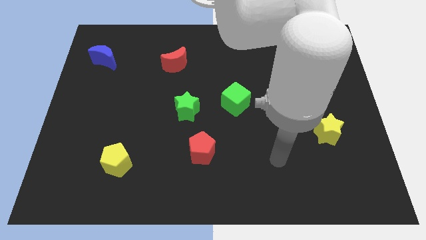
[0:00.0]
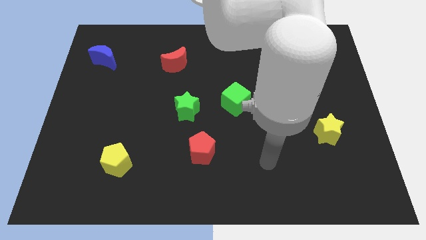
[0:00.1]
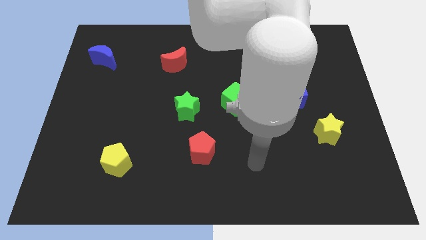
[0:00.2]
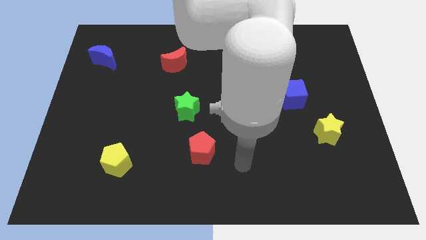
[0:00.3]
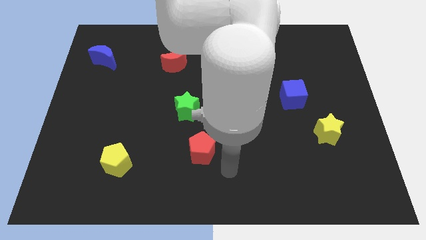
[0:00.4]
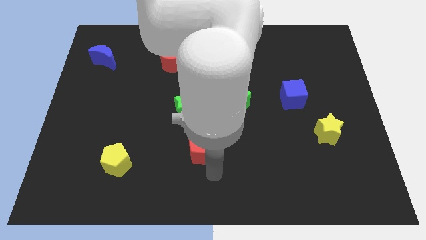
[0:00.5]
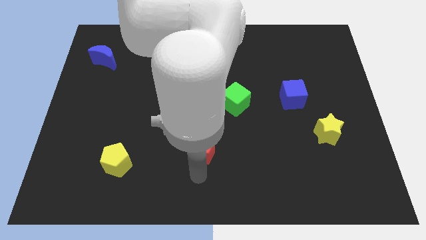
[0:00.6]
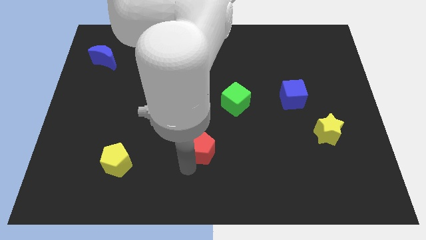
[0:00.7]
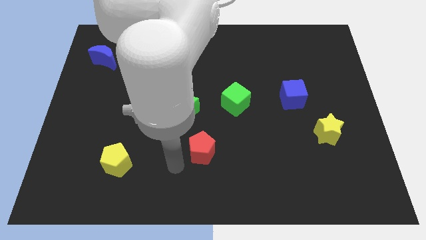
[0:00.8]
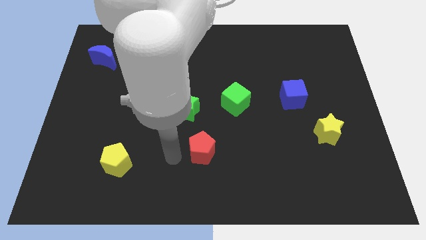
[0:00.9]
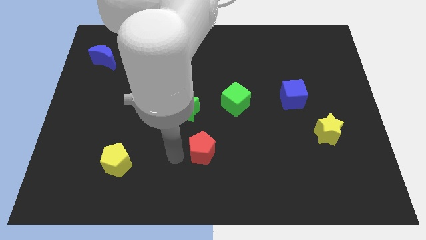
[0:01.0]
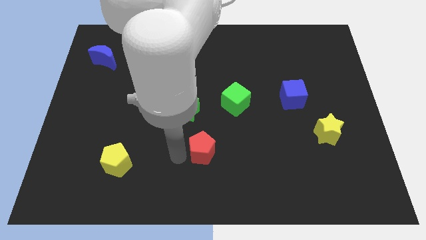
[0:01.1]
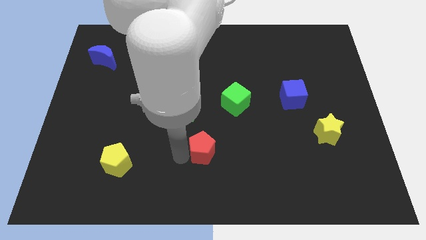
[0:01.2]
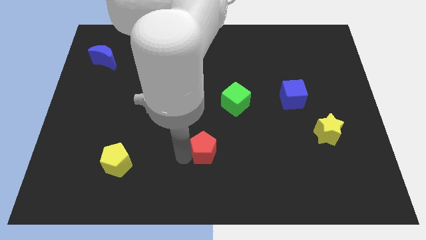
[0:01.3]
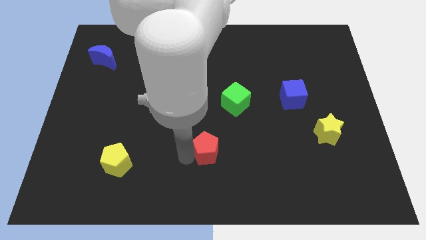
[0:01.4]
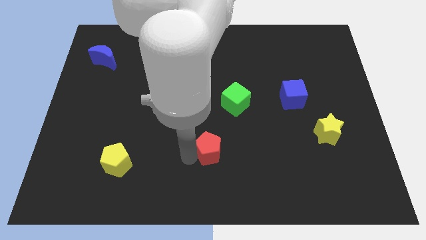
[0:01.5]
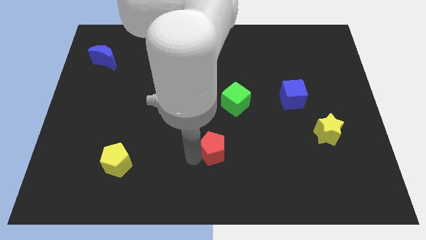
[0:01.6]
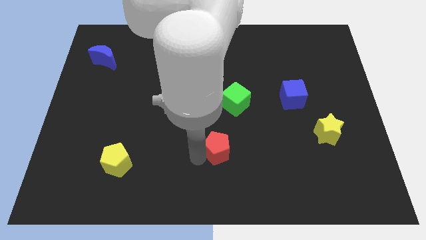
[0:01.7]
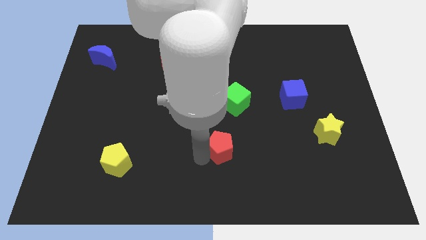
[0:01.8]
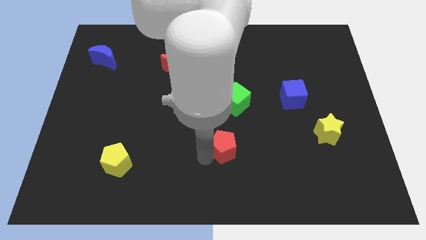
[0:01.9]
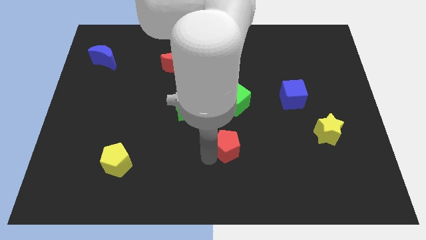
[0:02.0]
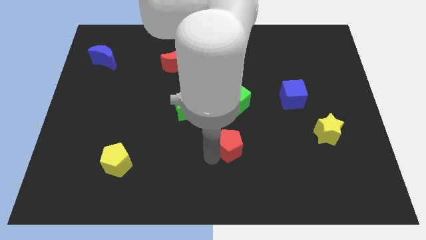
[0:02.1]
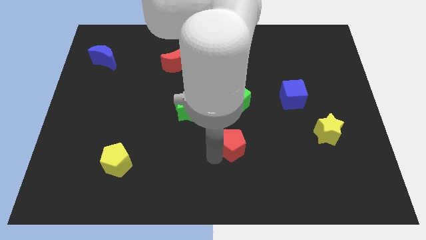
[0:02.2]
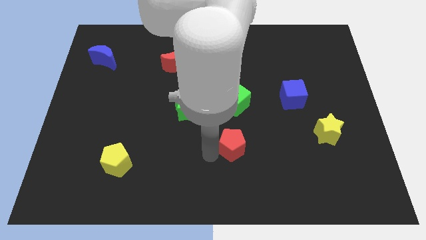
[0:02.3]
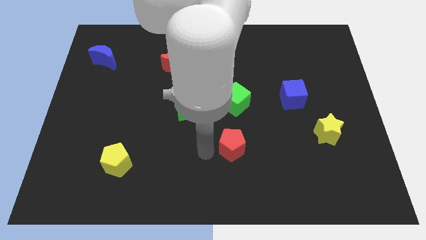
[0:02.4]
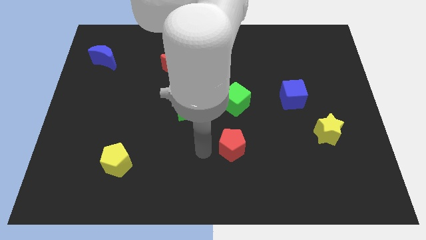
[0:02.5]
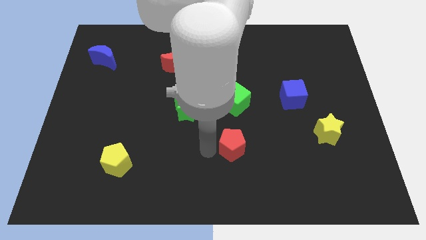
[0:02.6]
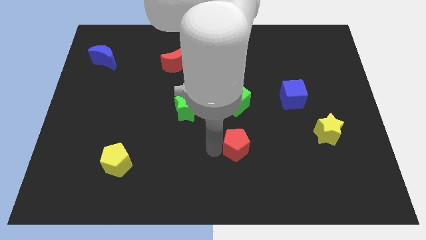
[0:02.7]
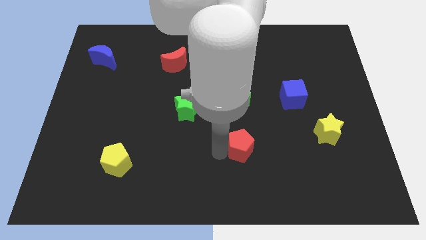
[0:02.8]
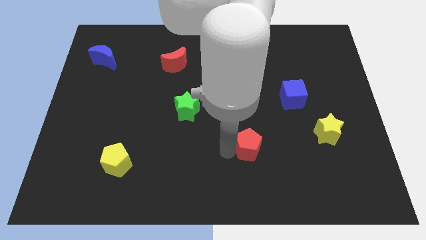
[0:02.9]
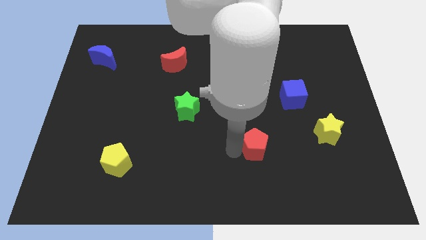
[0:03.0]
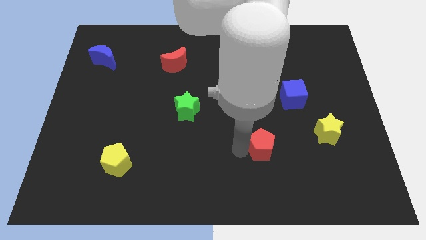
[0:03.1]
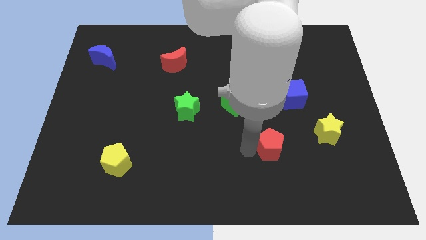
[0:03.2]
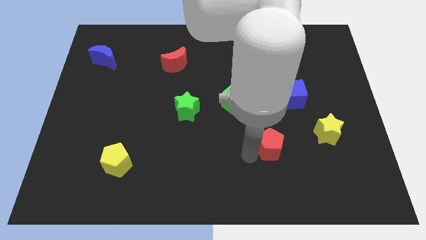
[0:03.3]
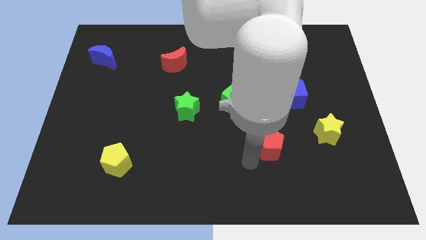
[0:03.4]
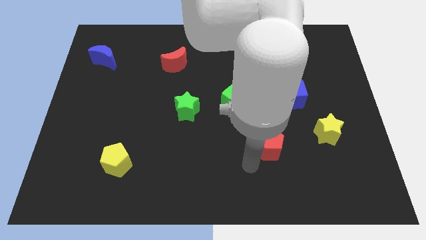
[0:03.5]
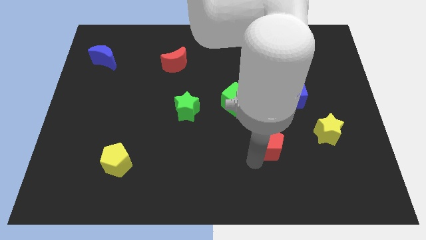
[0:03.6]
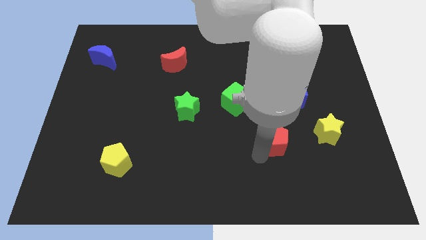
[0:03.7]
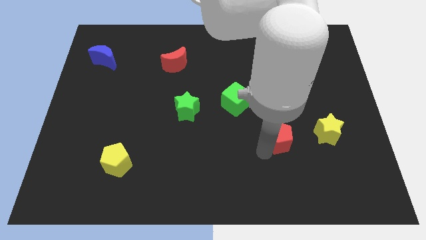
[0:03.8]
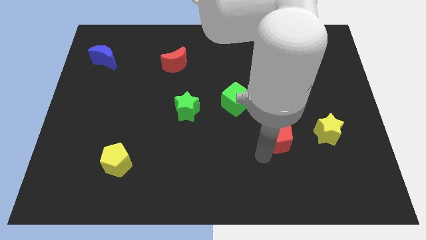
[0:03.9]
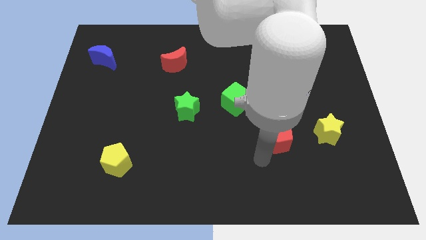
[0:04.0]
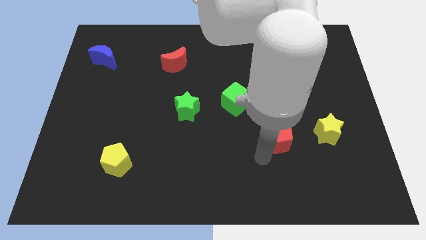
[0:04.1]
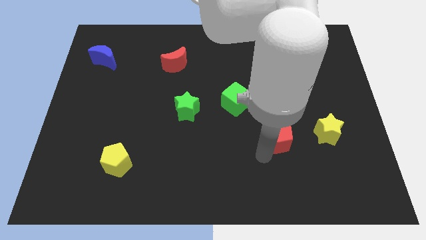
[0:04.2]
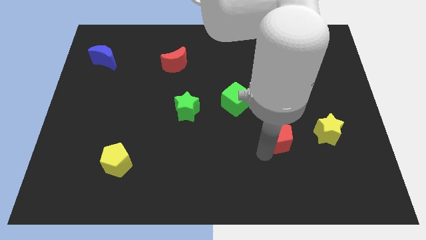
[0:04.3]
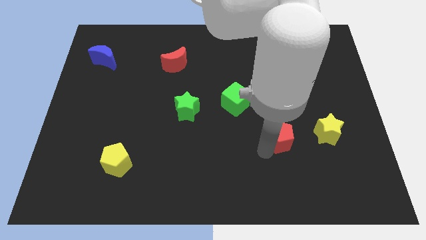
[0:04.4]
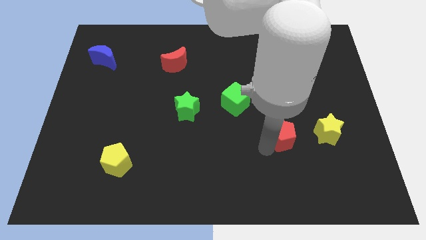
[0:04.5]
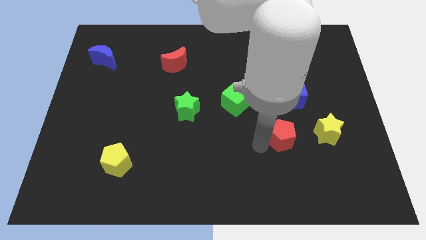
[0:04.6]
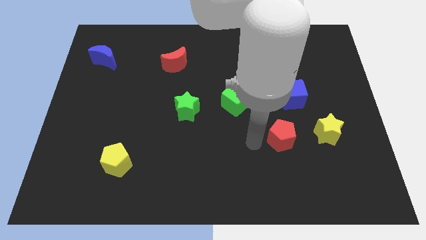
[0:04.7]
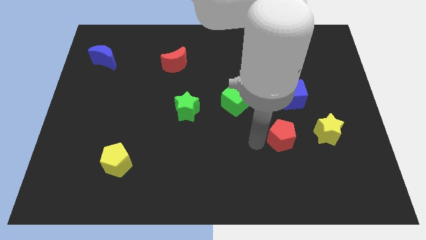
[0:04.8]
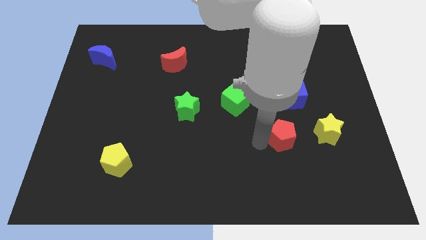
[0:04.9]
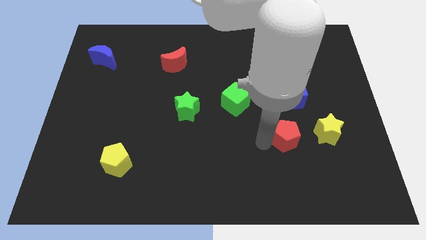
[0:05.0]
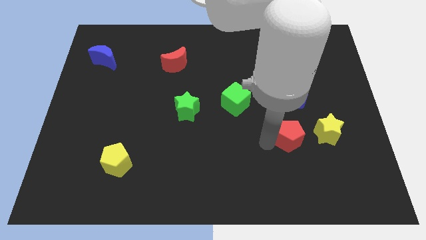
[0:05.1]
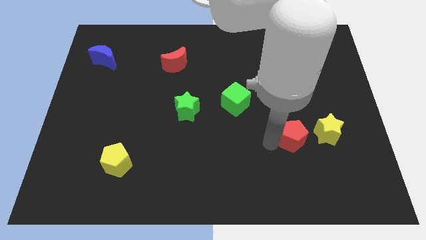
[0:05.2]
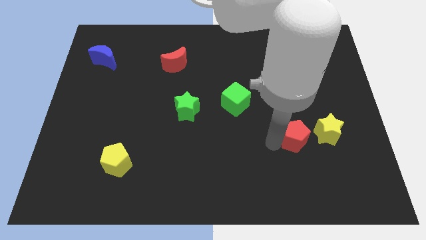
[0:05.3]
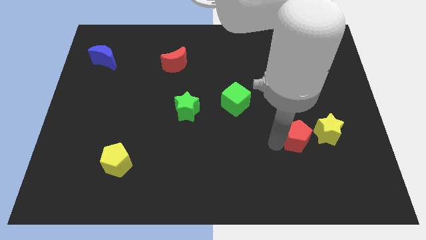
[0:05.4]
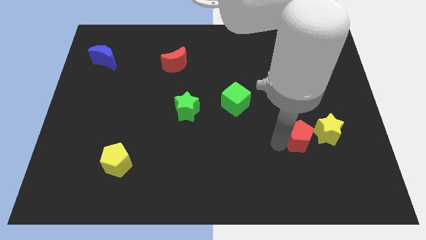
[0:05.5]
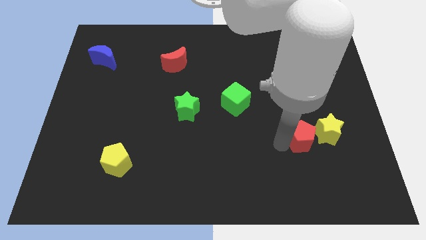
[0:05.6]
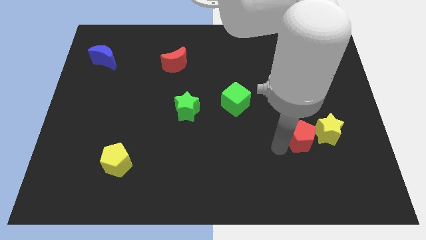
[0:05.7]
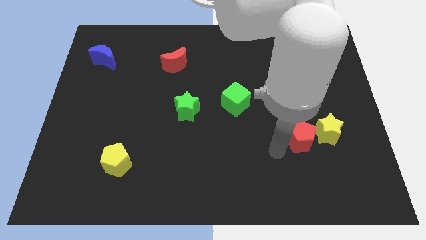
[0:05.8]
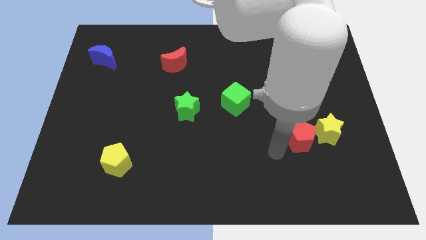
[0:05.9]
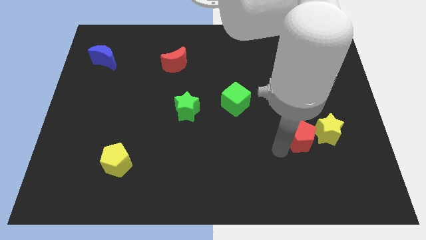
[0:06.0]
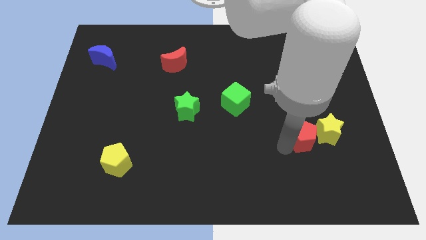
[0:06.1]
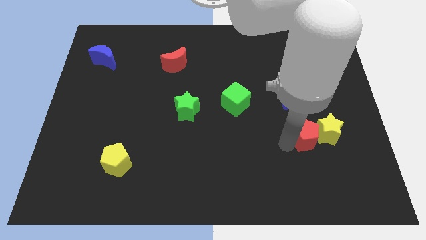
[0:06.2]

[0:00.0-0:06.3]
slide the red pentagon close to the yellow star

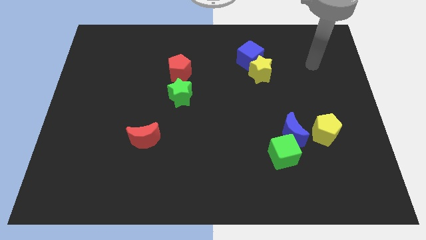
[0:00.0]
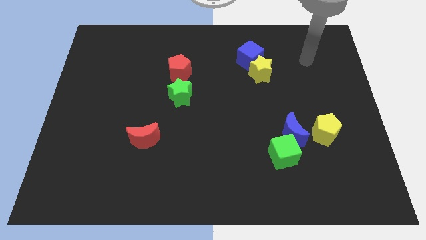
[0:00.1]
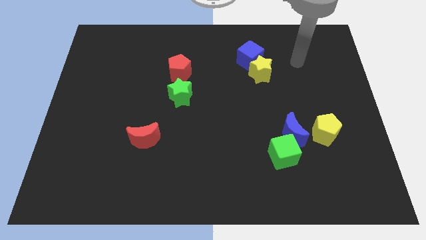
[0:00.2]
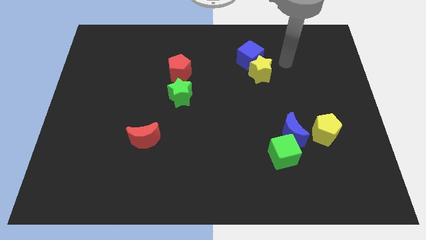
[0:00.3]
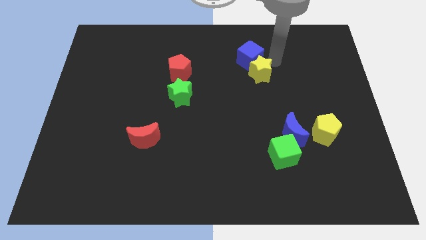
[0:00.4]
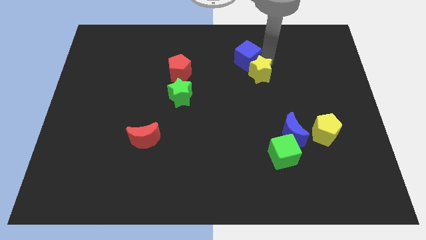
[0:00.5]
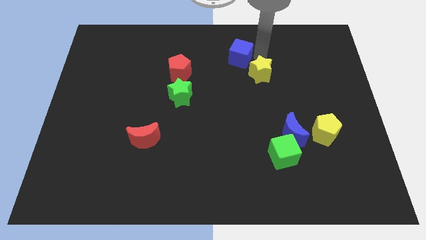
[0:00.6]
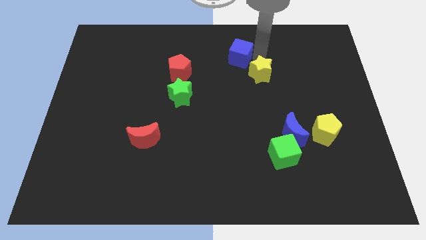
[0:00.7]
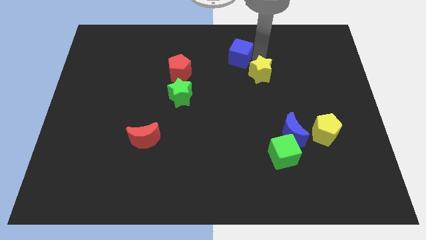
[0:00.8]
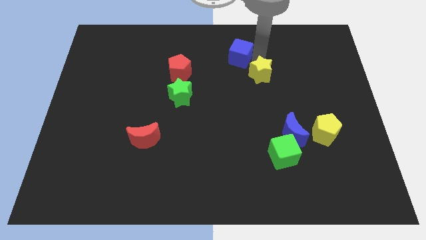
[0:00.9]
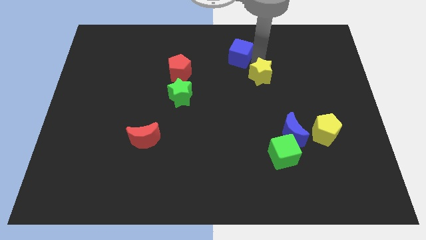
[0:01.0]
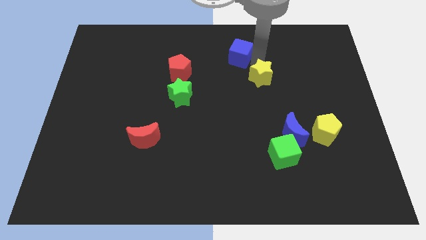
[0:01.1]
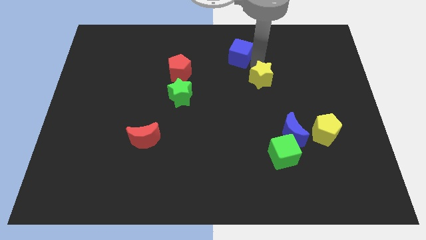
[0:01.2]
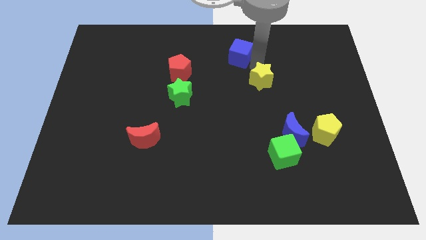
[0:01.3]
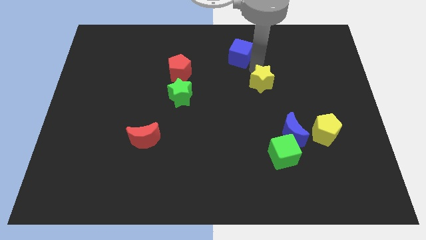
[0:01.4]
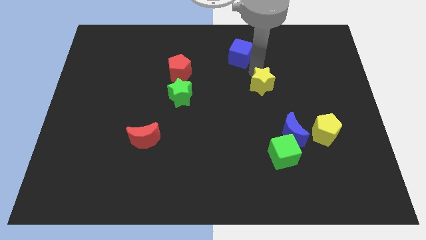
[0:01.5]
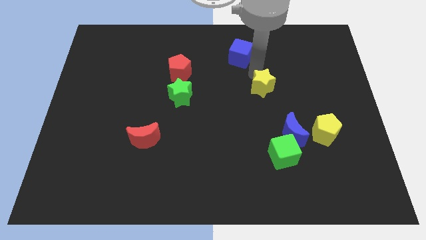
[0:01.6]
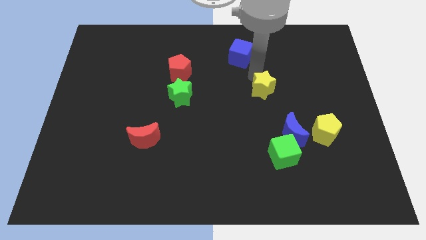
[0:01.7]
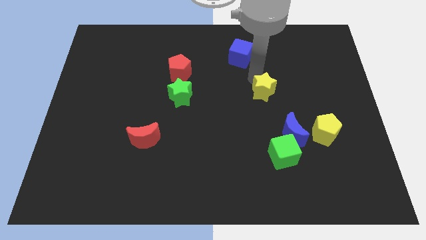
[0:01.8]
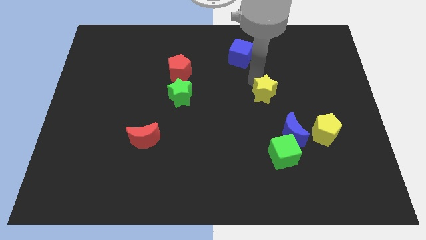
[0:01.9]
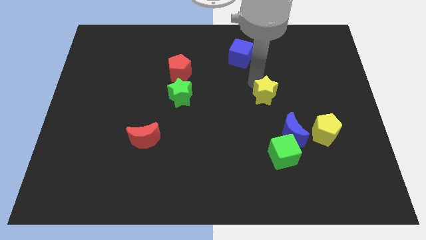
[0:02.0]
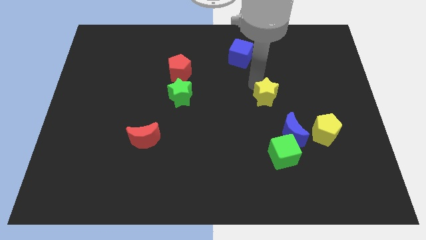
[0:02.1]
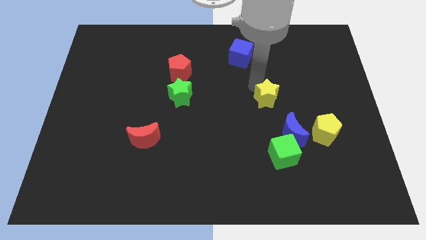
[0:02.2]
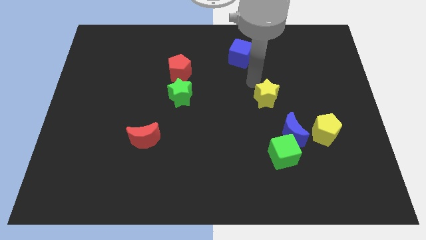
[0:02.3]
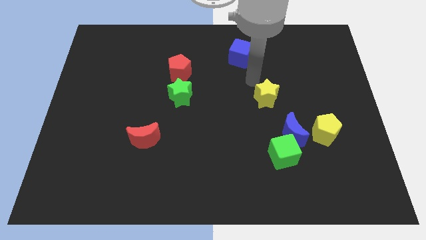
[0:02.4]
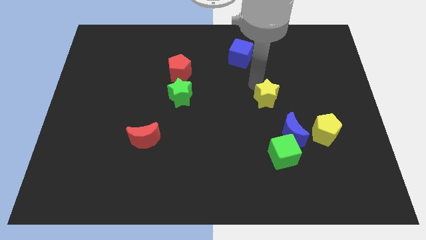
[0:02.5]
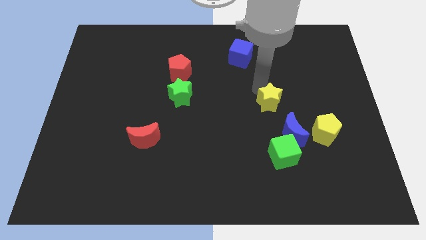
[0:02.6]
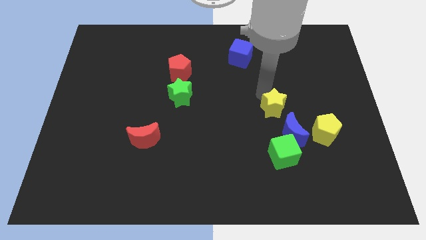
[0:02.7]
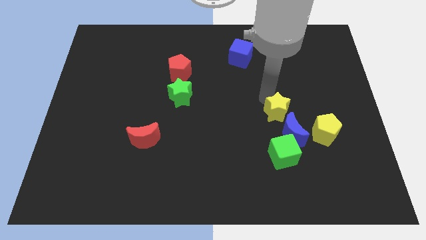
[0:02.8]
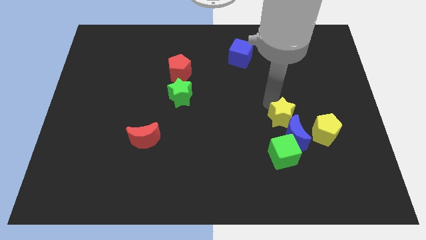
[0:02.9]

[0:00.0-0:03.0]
move the yellow star towards the blue moon
